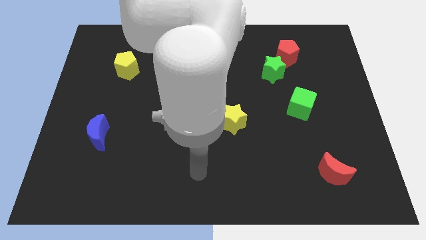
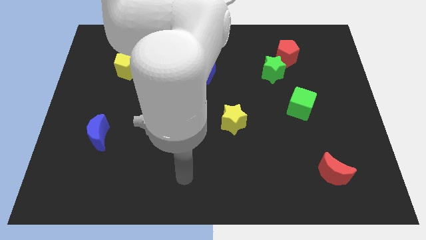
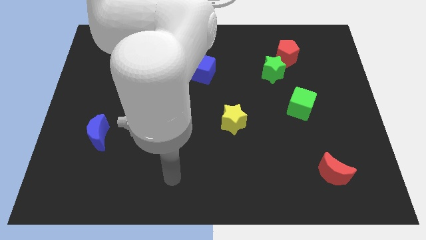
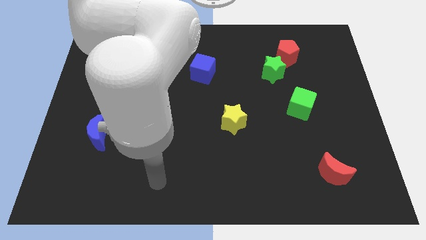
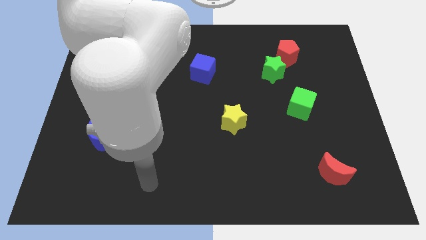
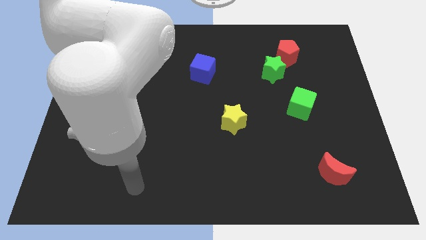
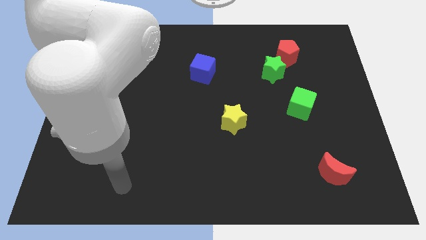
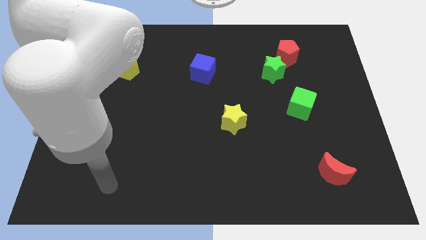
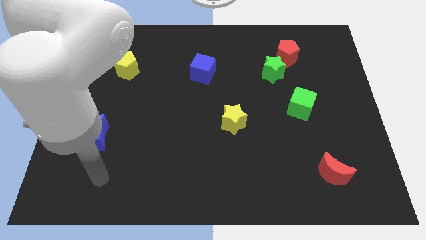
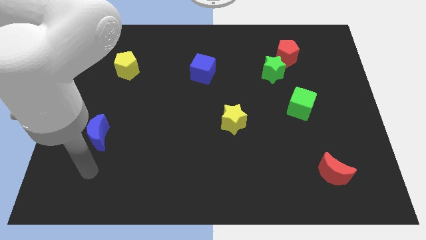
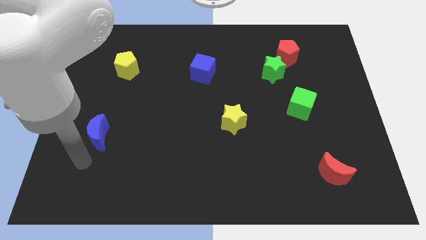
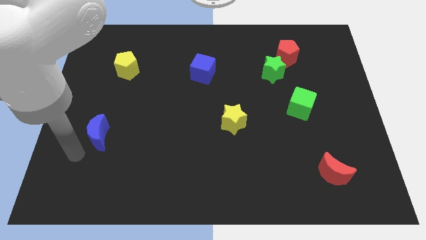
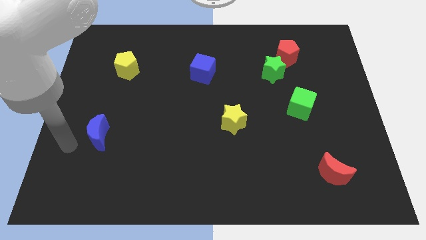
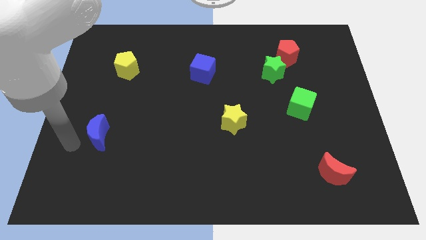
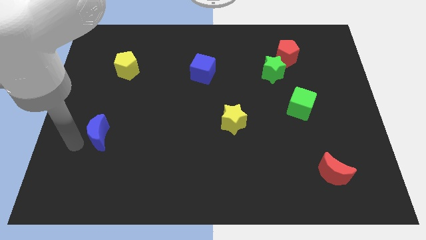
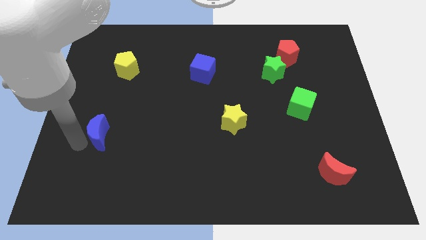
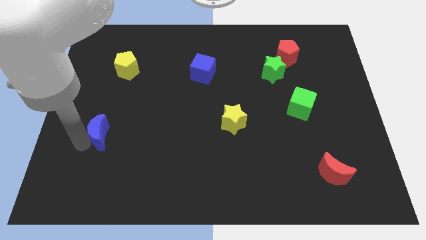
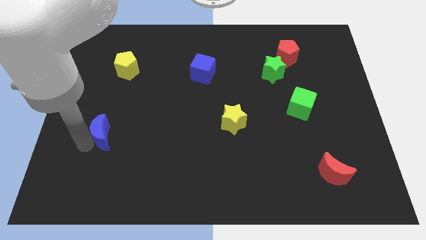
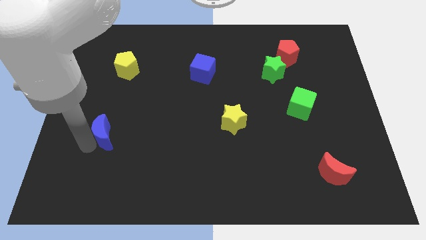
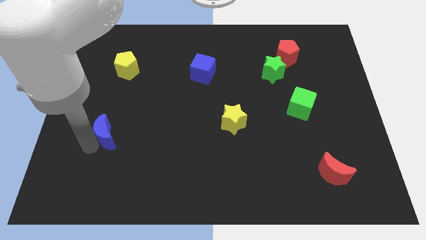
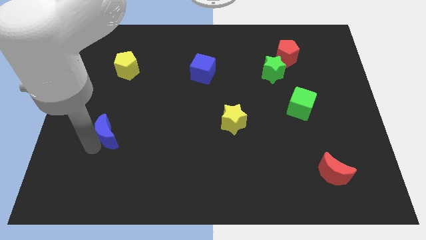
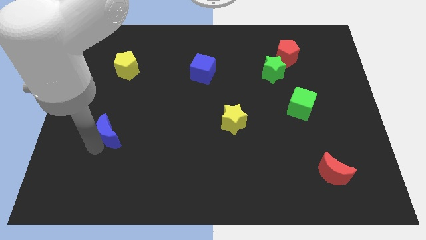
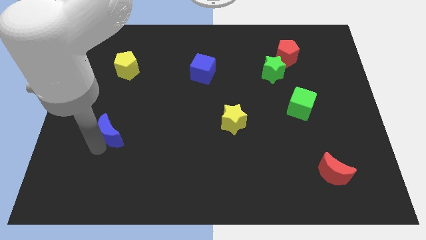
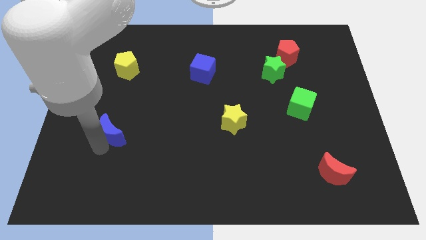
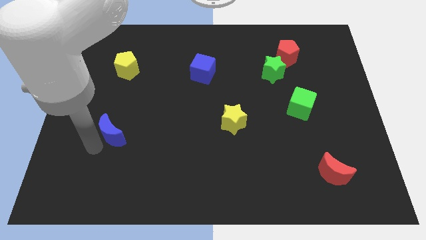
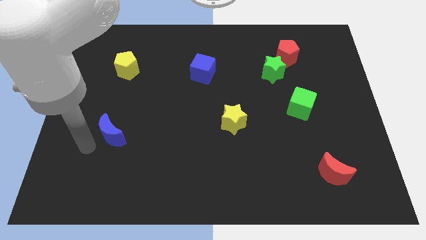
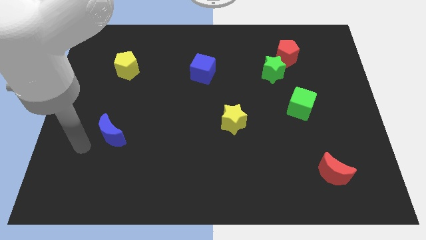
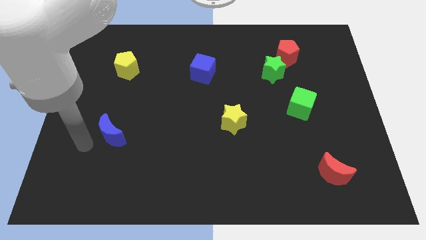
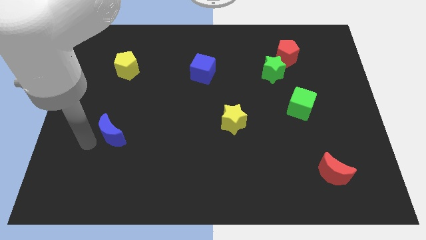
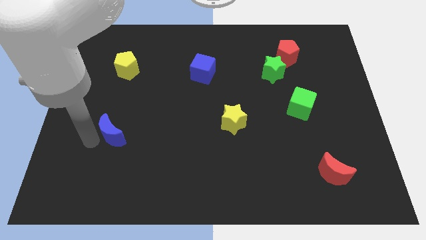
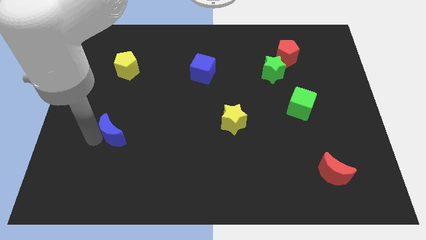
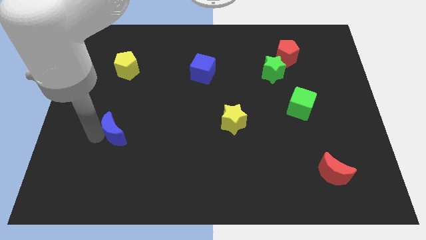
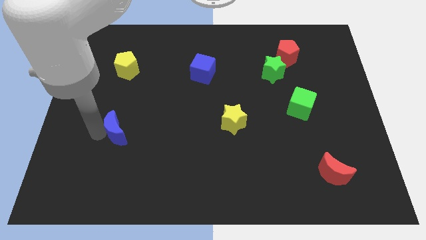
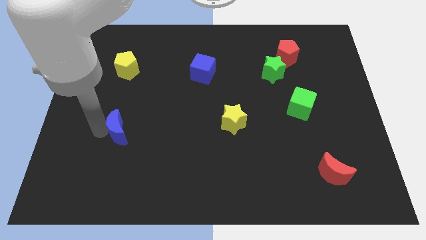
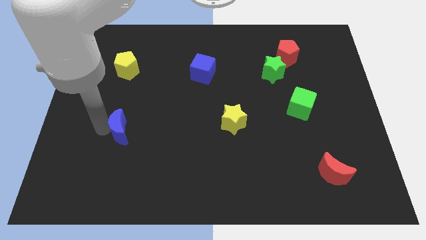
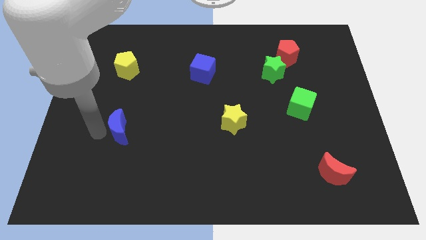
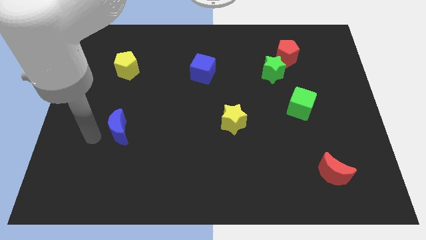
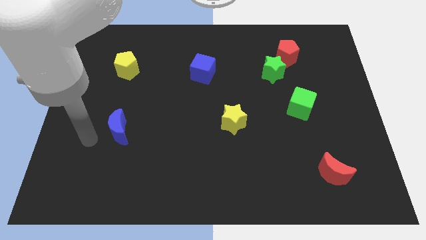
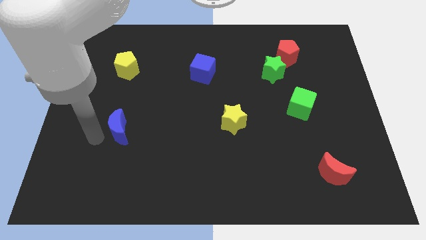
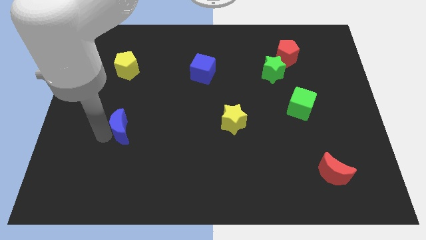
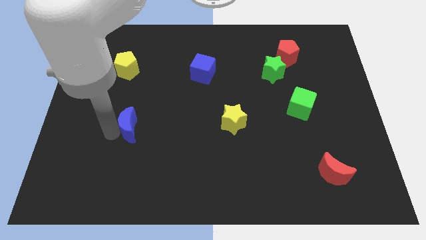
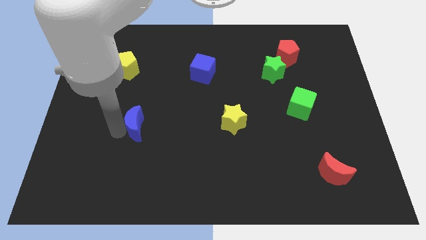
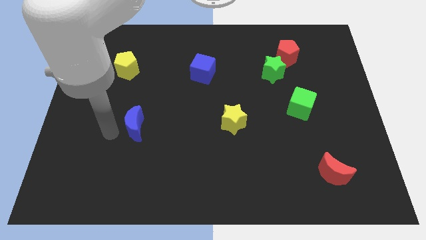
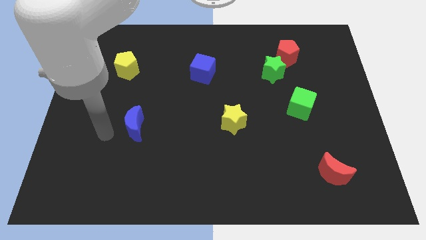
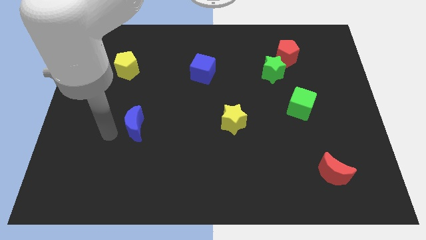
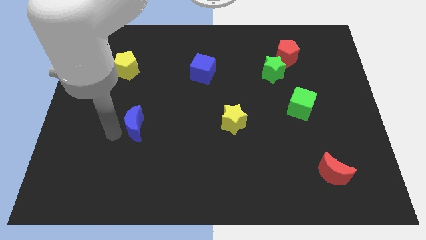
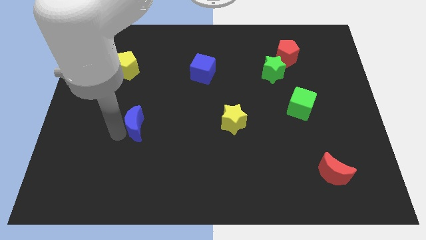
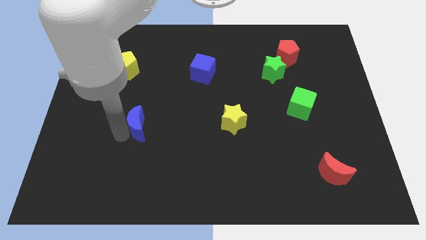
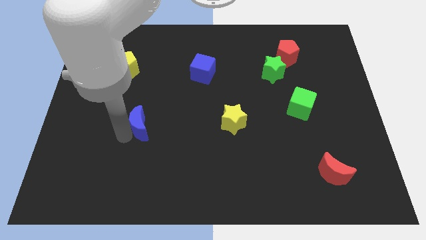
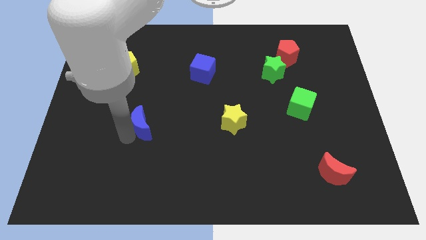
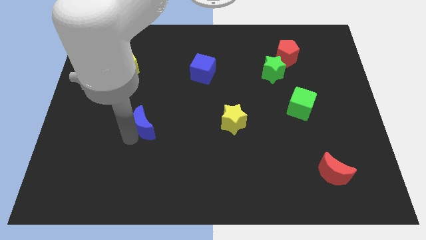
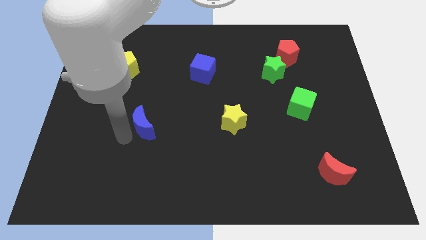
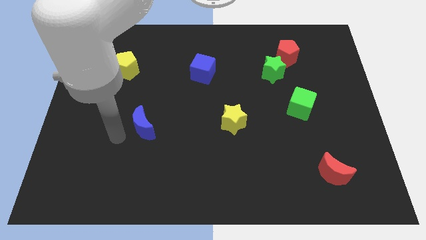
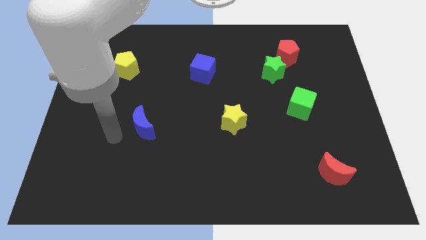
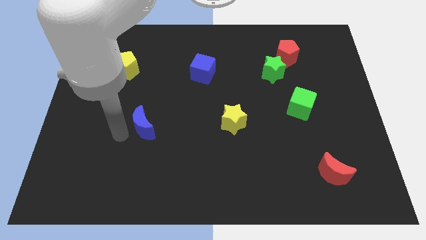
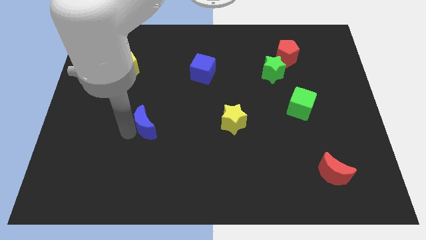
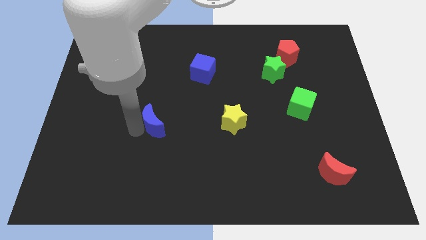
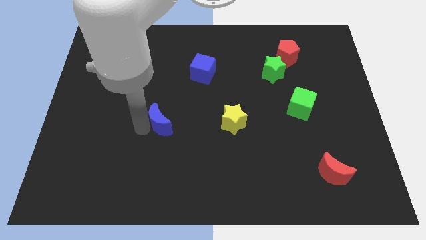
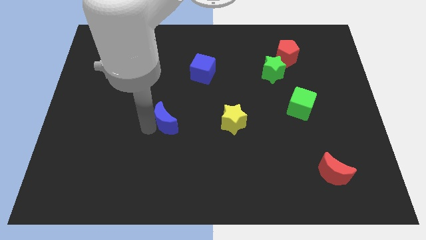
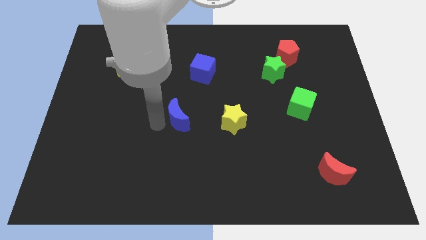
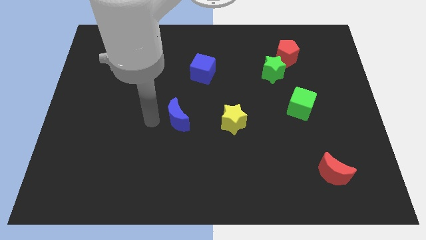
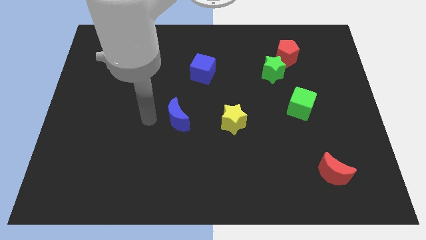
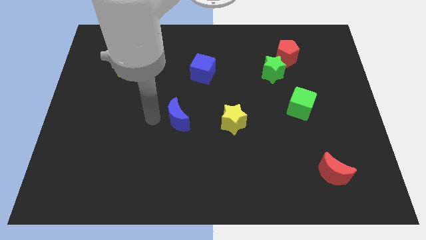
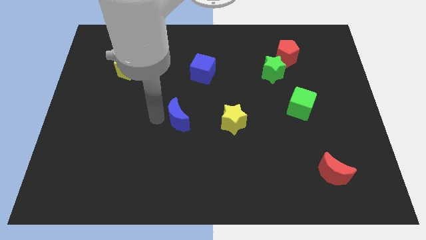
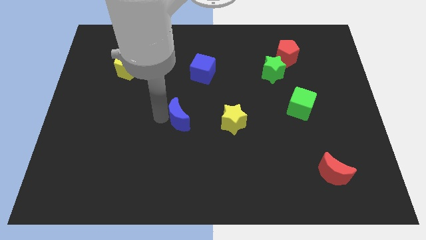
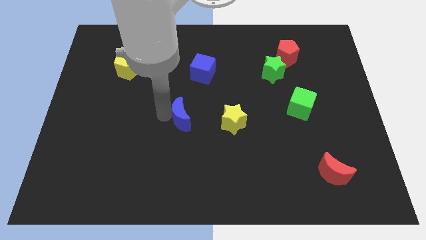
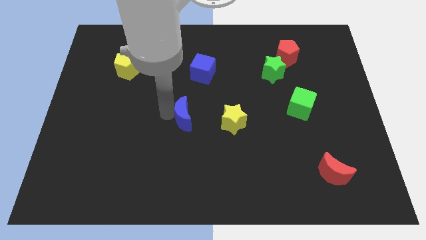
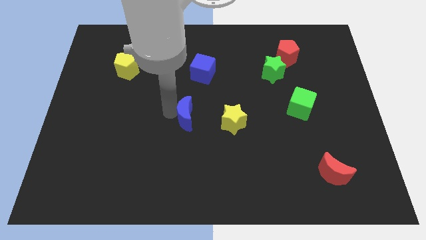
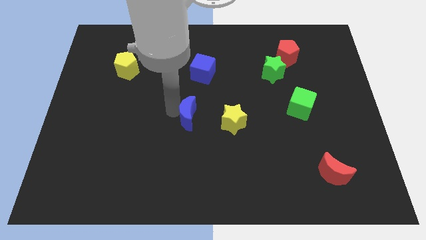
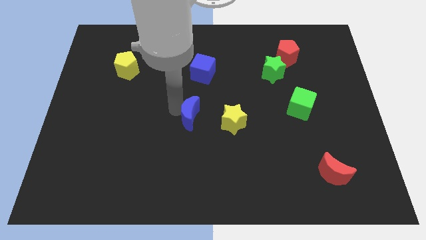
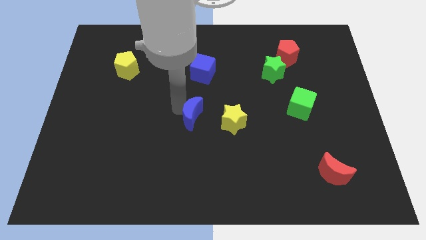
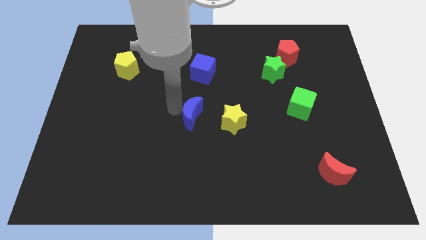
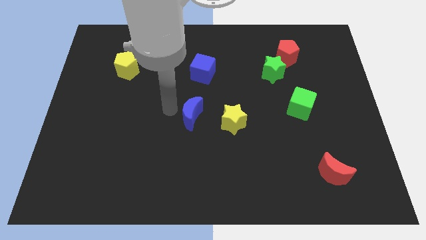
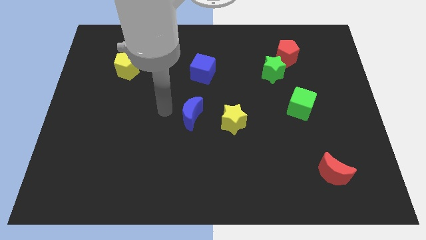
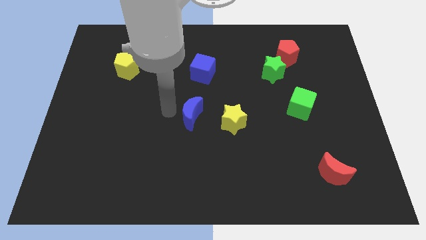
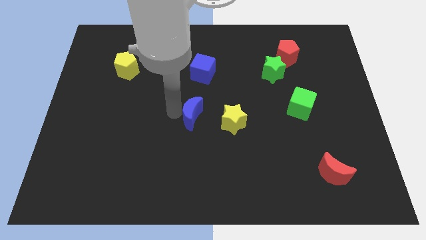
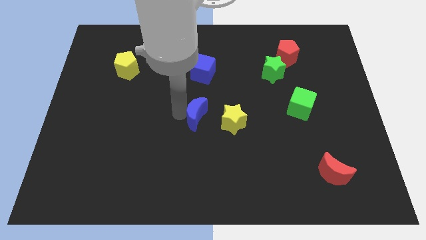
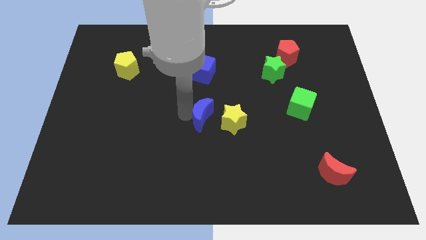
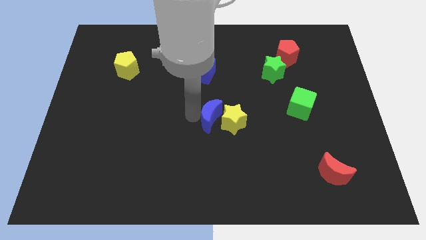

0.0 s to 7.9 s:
push the blue moon towards the yellow star
